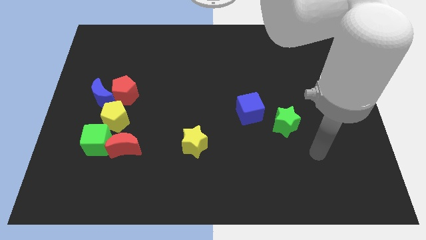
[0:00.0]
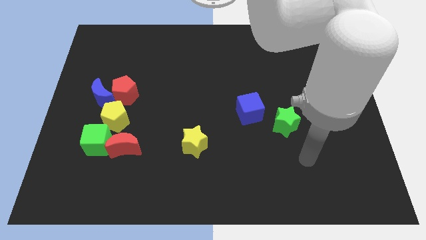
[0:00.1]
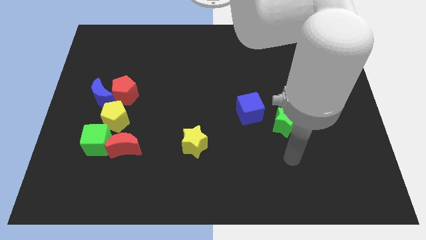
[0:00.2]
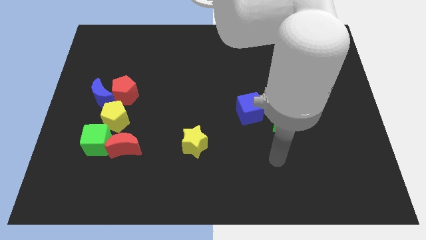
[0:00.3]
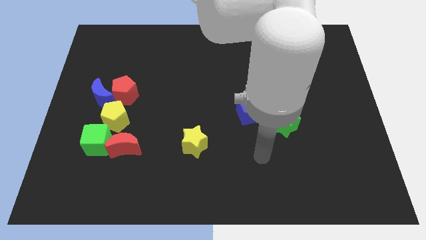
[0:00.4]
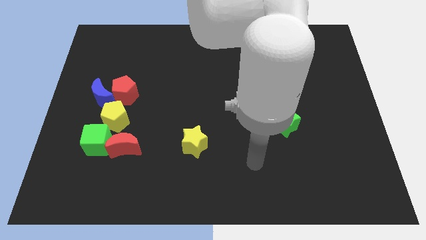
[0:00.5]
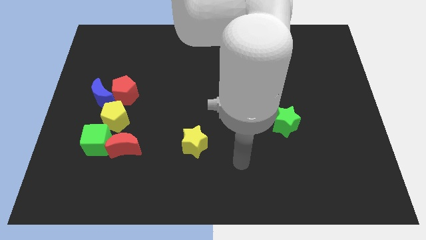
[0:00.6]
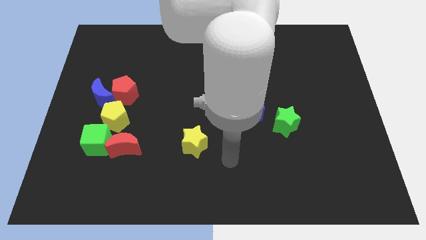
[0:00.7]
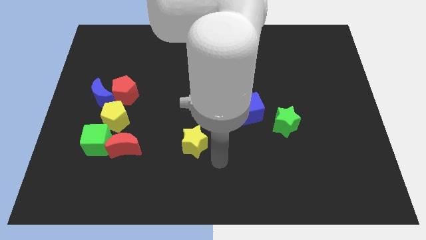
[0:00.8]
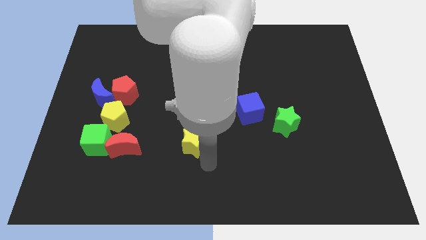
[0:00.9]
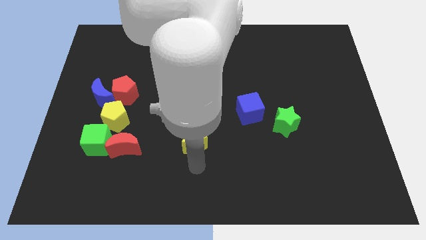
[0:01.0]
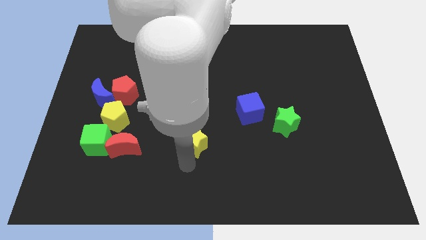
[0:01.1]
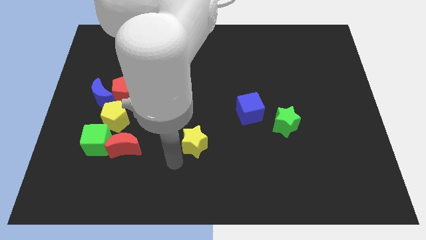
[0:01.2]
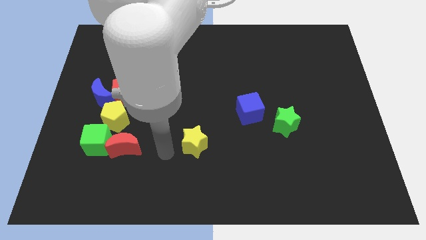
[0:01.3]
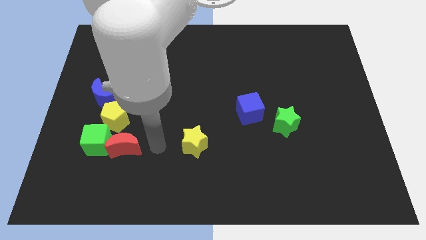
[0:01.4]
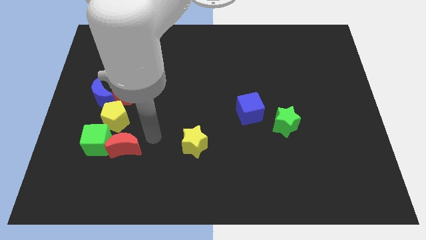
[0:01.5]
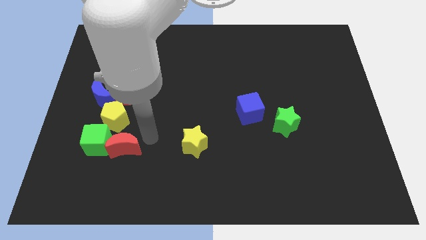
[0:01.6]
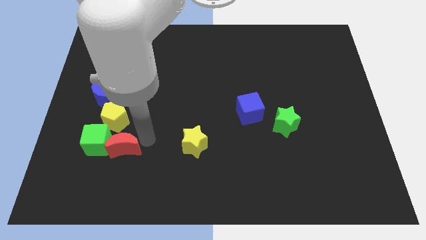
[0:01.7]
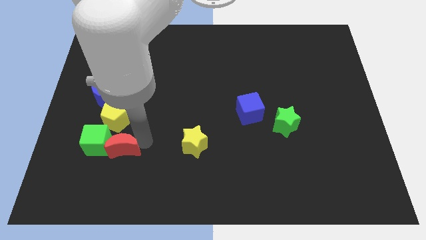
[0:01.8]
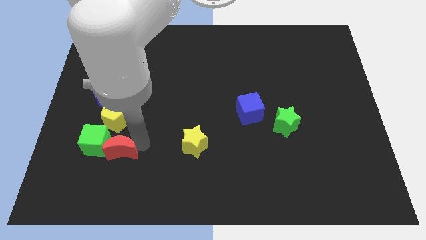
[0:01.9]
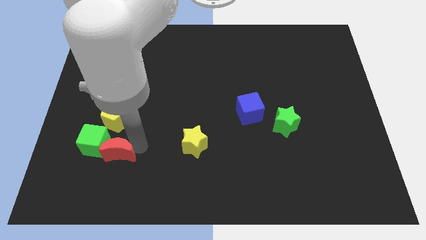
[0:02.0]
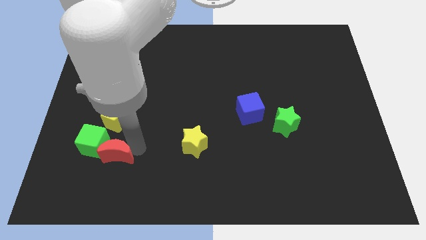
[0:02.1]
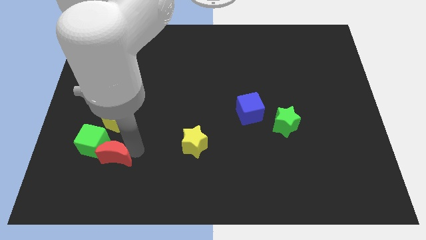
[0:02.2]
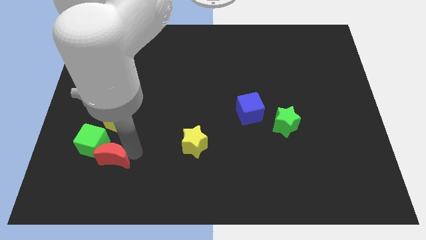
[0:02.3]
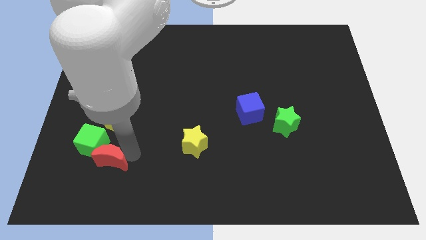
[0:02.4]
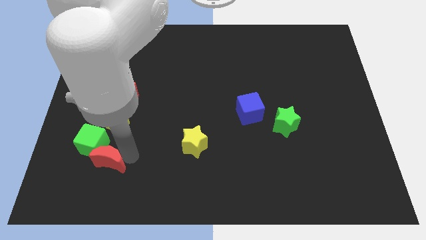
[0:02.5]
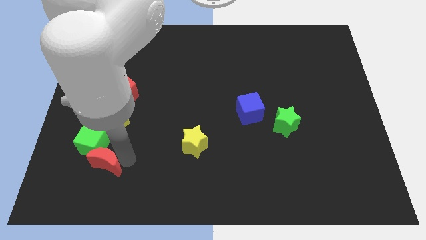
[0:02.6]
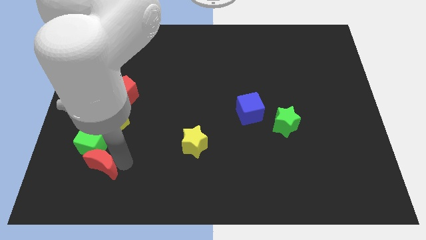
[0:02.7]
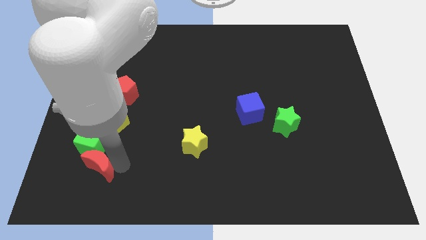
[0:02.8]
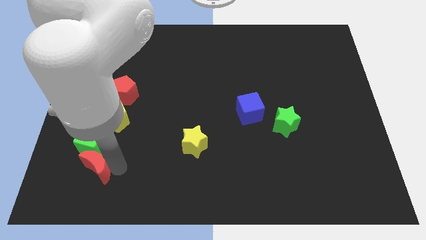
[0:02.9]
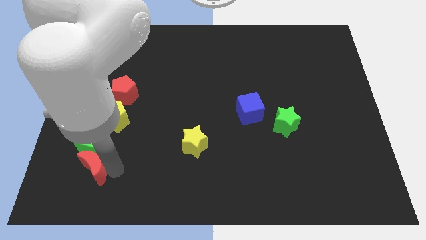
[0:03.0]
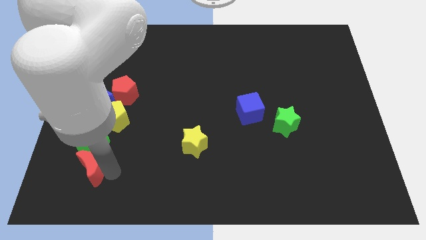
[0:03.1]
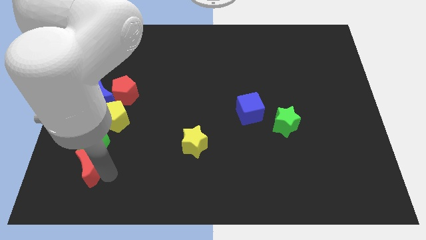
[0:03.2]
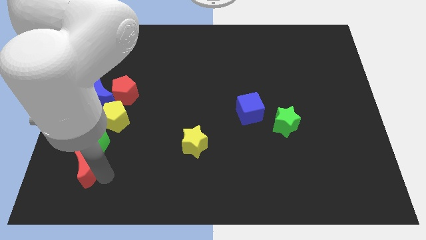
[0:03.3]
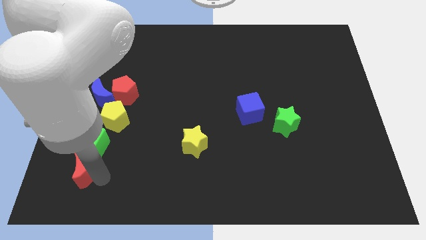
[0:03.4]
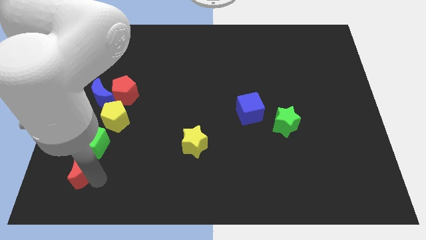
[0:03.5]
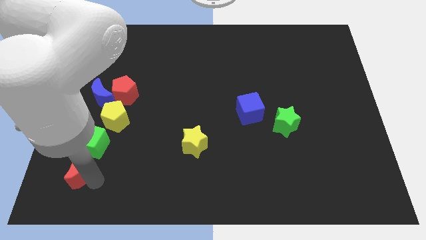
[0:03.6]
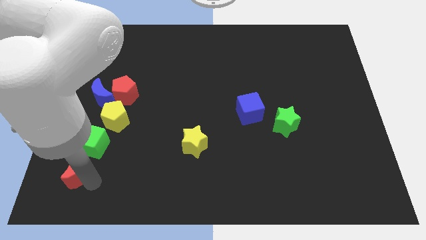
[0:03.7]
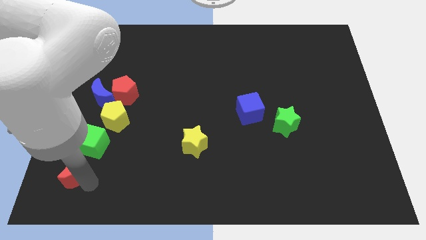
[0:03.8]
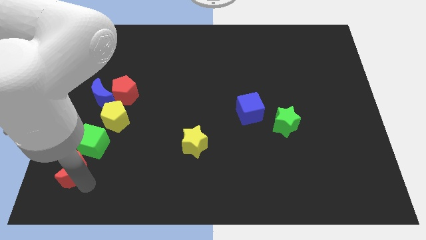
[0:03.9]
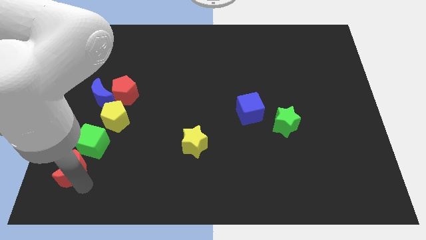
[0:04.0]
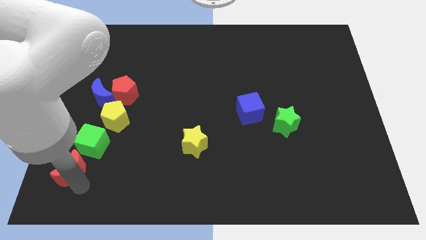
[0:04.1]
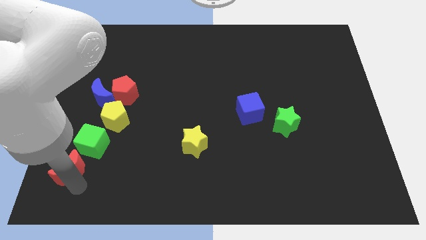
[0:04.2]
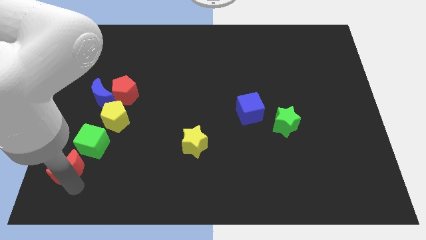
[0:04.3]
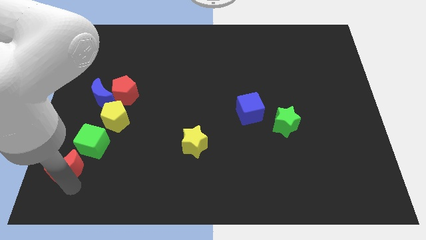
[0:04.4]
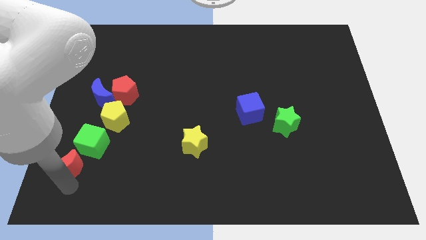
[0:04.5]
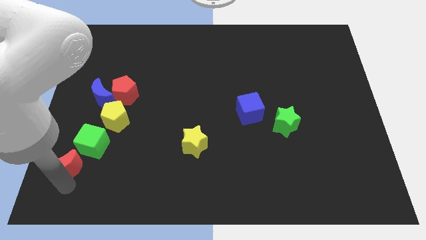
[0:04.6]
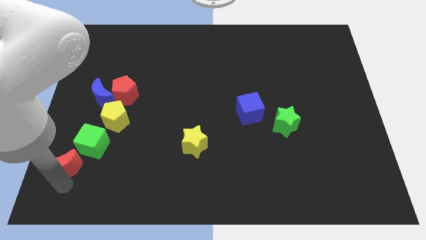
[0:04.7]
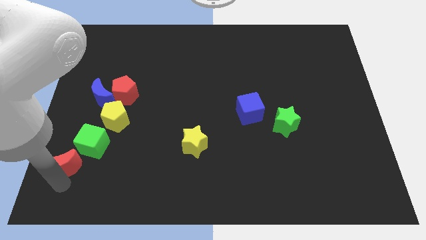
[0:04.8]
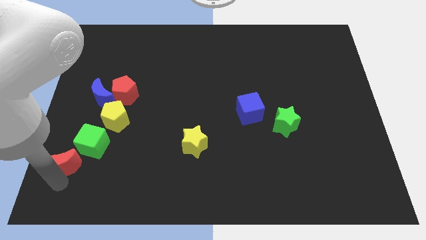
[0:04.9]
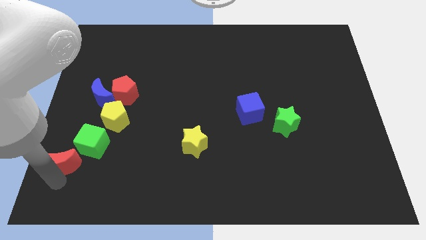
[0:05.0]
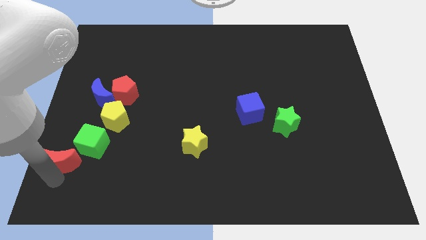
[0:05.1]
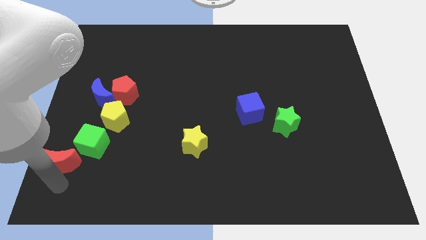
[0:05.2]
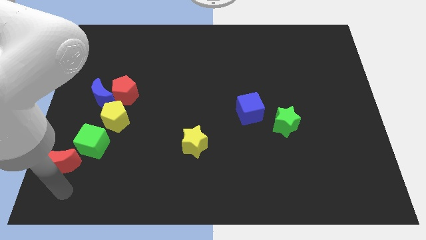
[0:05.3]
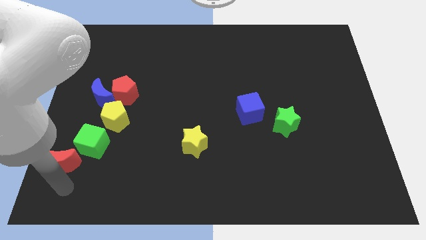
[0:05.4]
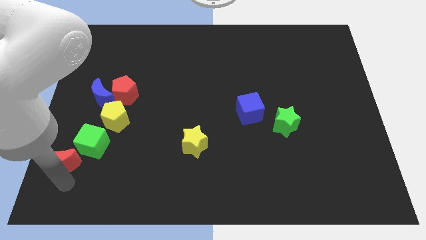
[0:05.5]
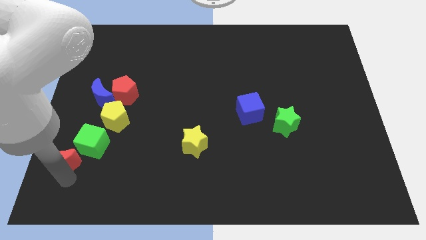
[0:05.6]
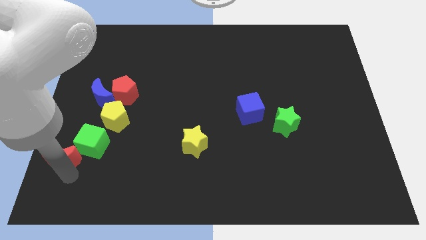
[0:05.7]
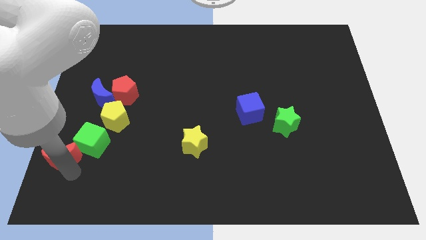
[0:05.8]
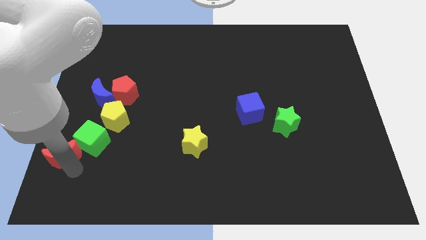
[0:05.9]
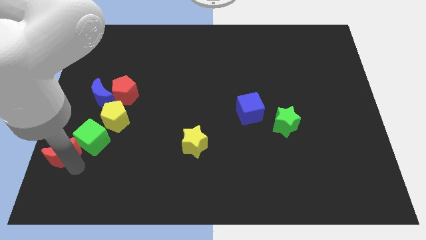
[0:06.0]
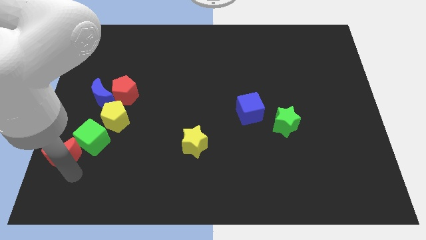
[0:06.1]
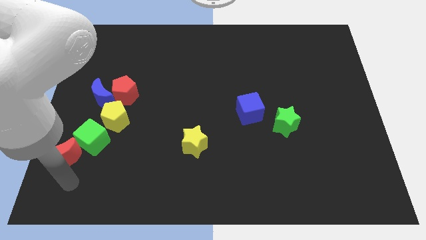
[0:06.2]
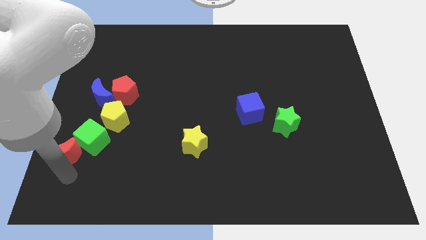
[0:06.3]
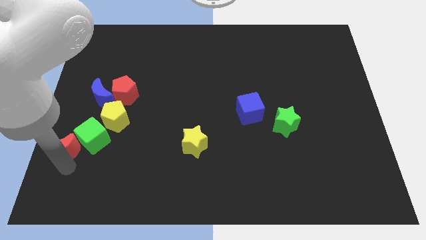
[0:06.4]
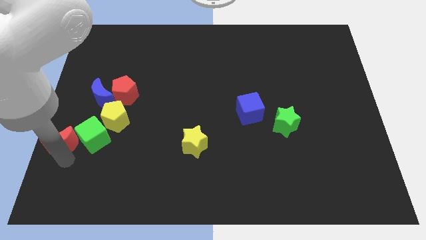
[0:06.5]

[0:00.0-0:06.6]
slide the red moon to the left side
